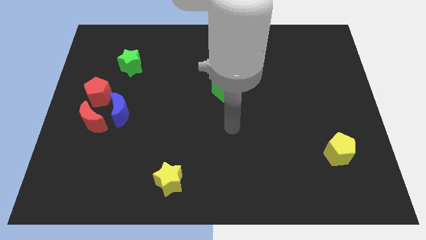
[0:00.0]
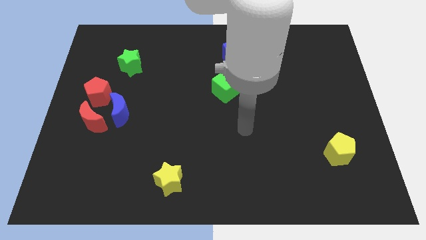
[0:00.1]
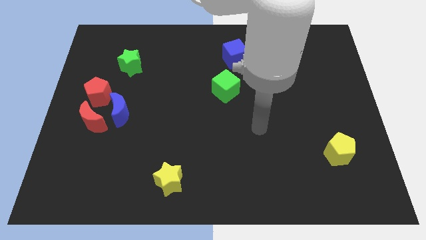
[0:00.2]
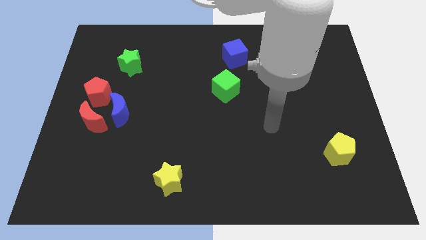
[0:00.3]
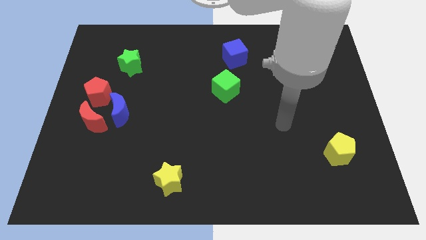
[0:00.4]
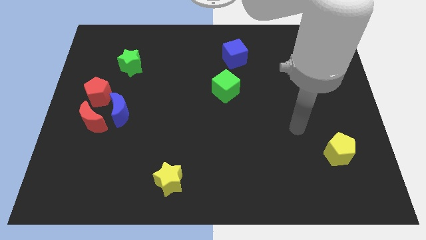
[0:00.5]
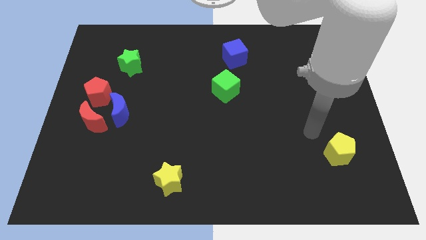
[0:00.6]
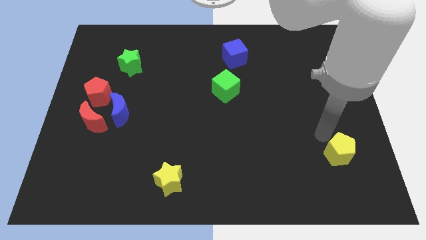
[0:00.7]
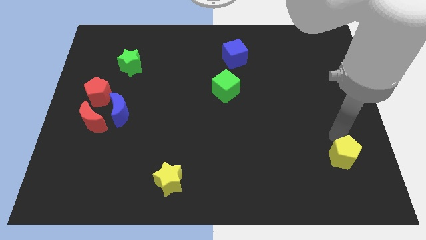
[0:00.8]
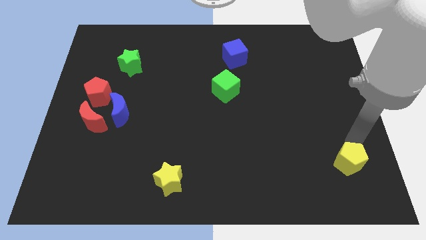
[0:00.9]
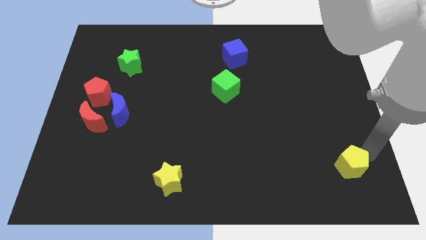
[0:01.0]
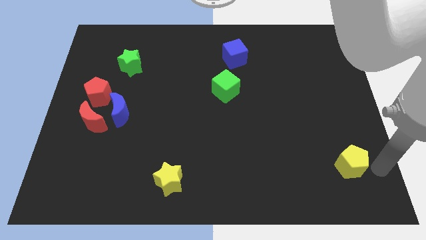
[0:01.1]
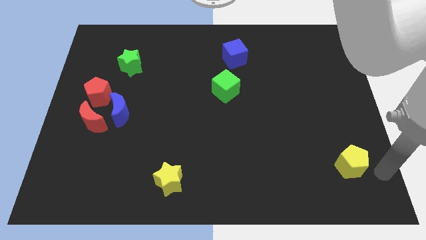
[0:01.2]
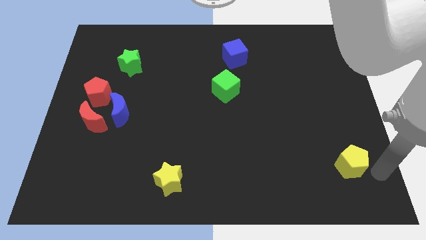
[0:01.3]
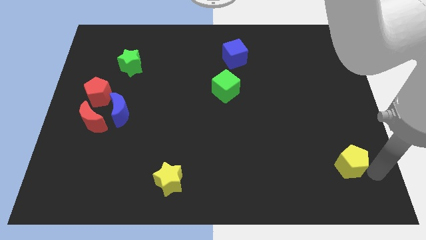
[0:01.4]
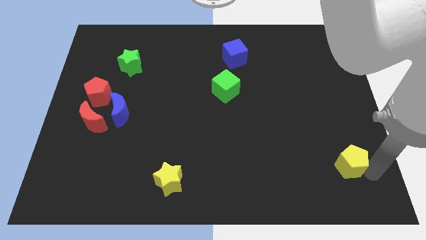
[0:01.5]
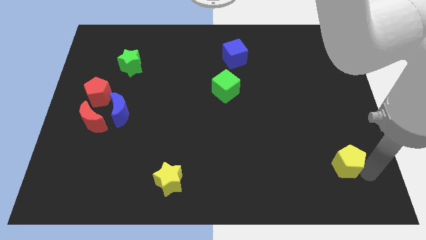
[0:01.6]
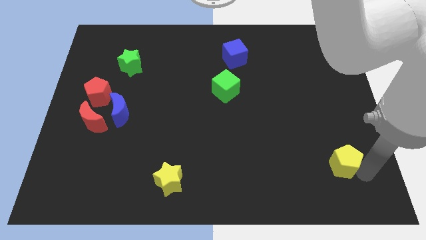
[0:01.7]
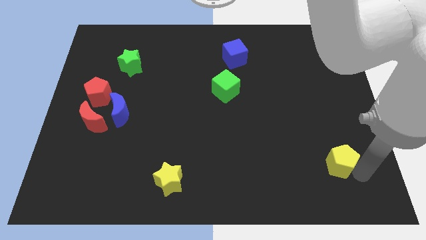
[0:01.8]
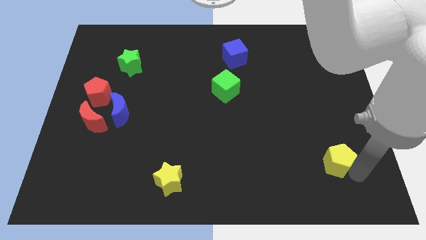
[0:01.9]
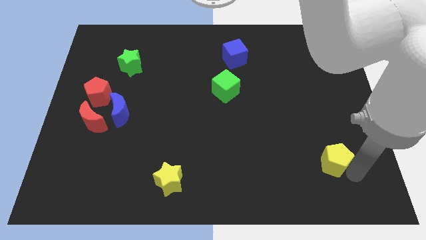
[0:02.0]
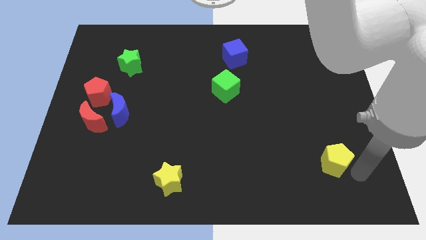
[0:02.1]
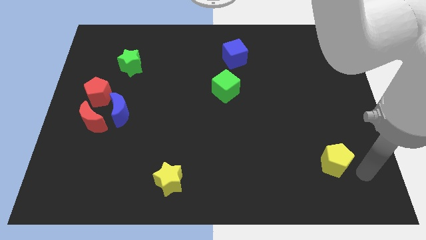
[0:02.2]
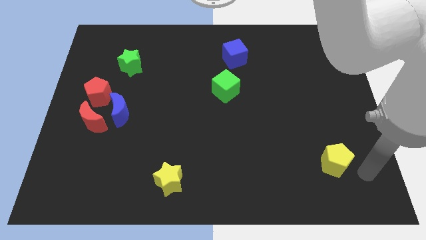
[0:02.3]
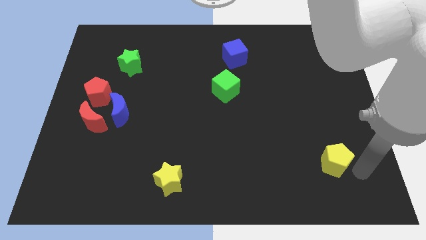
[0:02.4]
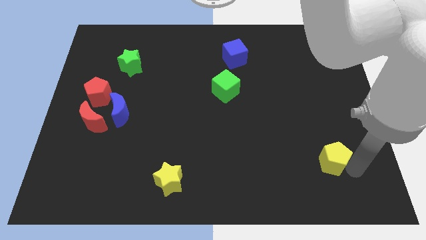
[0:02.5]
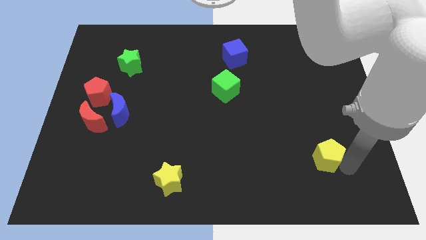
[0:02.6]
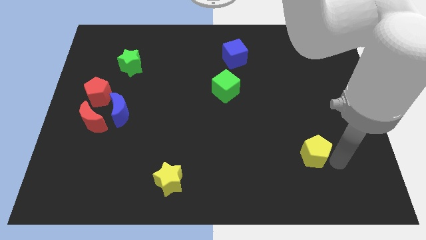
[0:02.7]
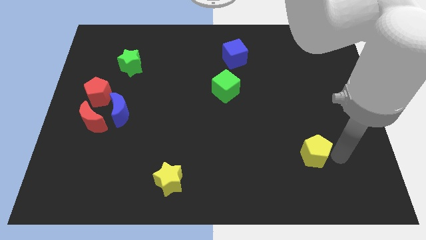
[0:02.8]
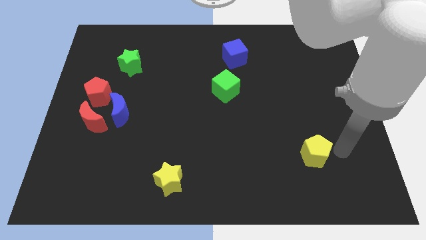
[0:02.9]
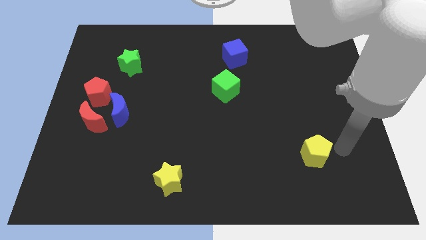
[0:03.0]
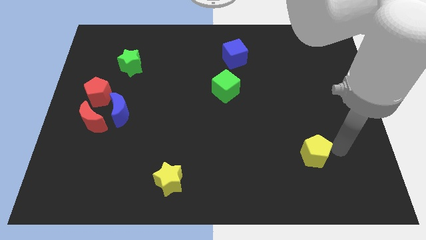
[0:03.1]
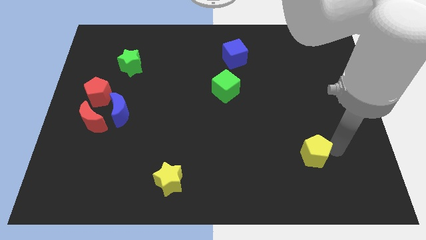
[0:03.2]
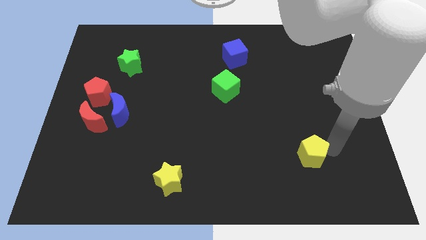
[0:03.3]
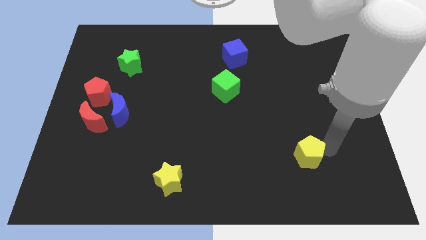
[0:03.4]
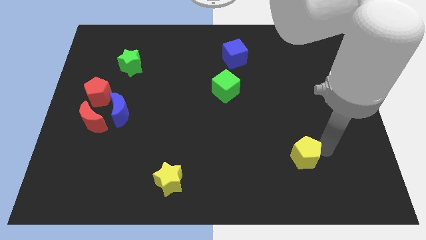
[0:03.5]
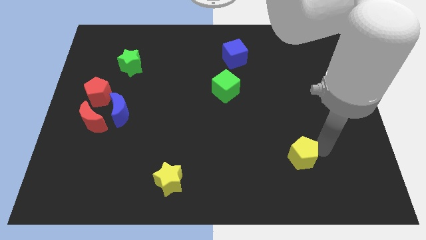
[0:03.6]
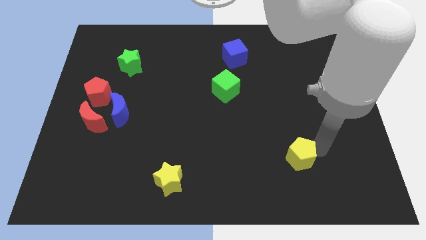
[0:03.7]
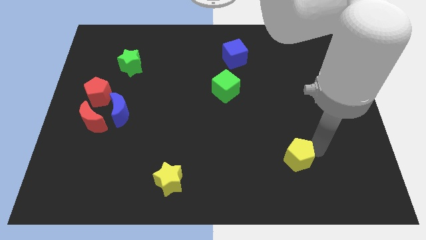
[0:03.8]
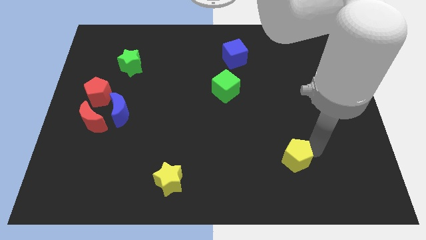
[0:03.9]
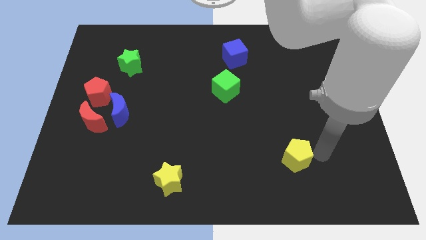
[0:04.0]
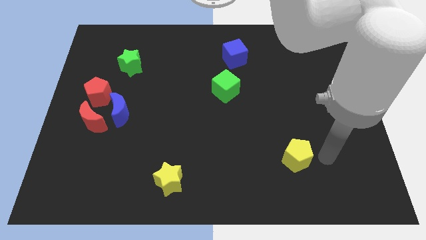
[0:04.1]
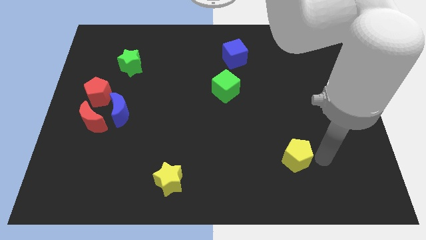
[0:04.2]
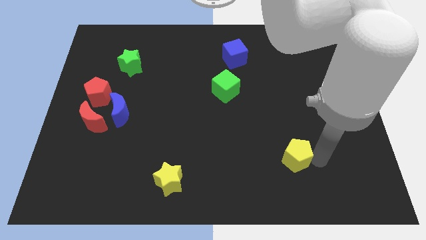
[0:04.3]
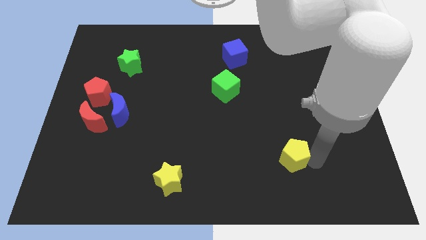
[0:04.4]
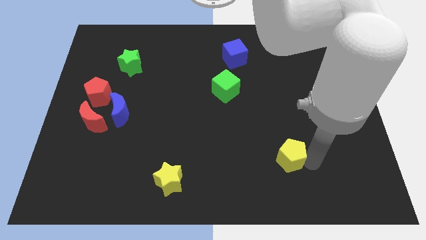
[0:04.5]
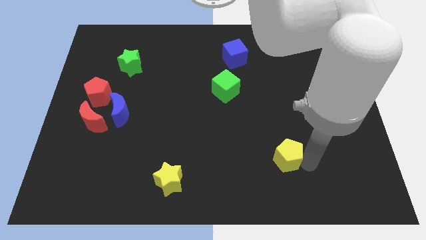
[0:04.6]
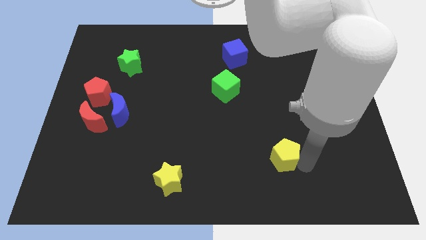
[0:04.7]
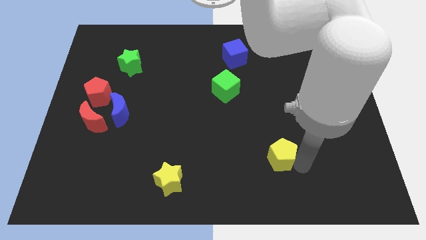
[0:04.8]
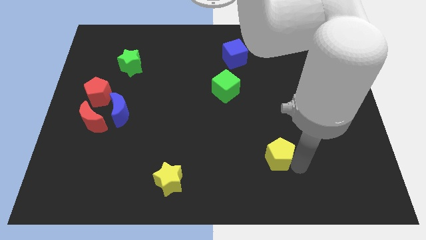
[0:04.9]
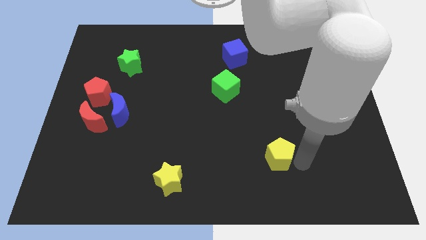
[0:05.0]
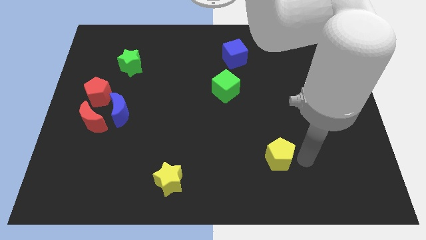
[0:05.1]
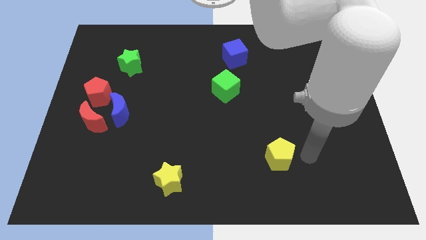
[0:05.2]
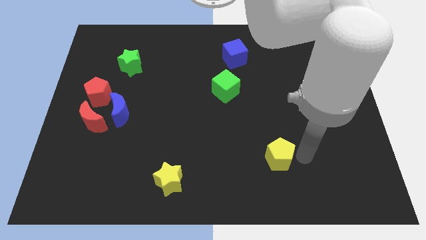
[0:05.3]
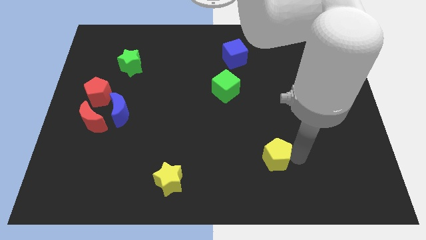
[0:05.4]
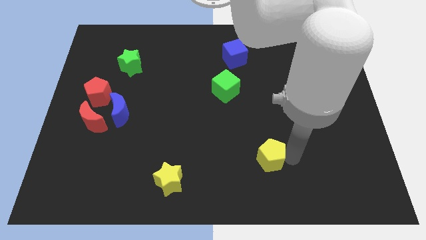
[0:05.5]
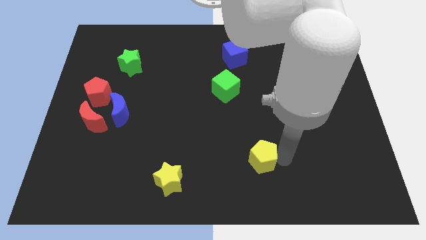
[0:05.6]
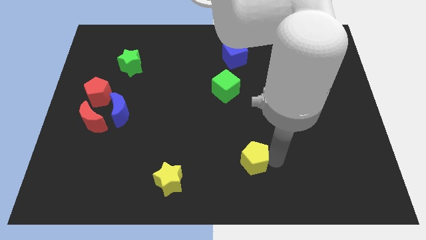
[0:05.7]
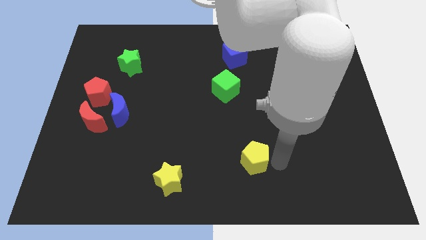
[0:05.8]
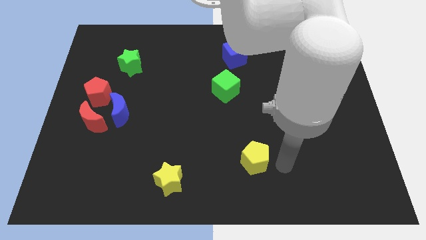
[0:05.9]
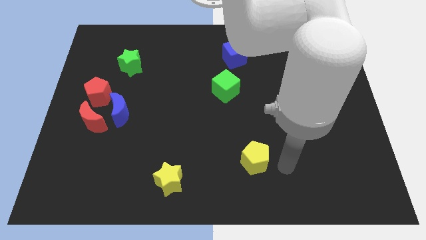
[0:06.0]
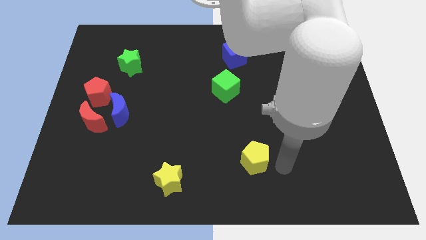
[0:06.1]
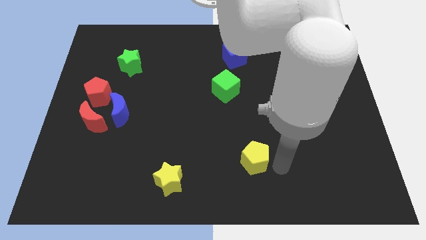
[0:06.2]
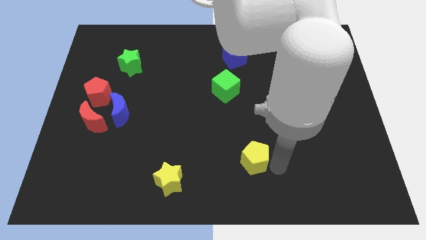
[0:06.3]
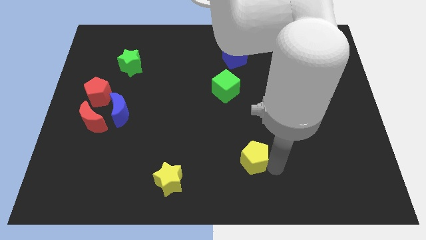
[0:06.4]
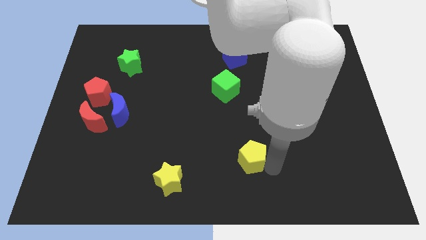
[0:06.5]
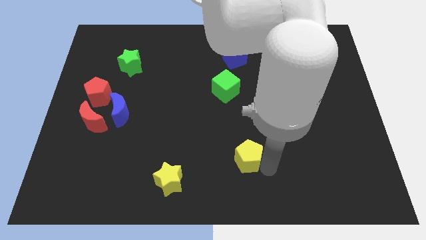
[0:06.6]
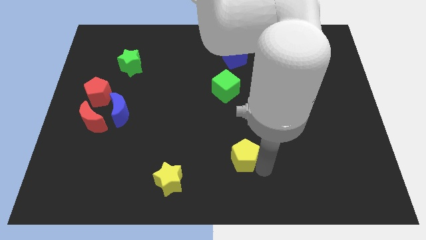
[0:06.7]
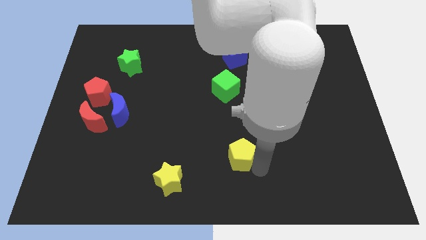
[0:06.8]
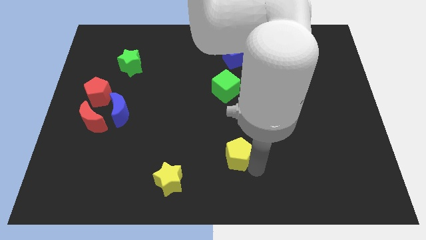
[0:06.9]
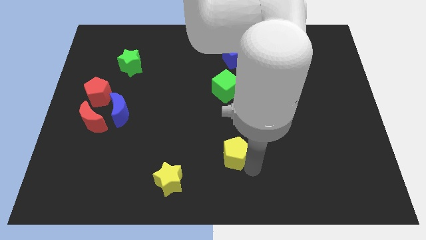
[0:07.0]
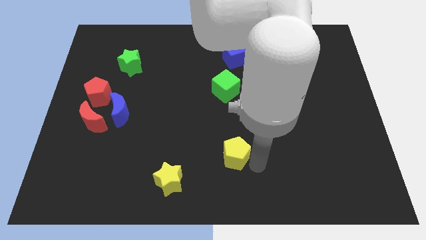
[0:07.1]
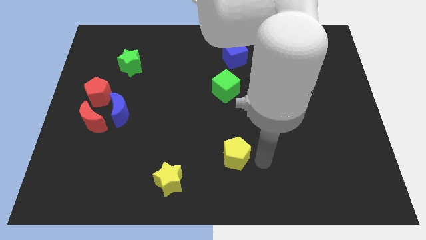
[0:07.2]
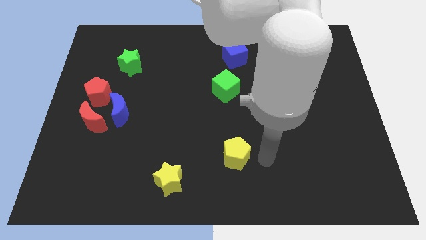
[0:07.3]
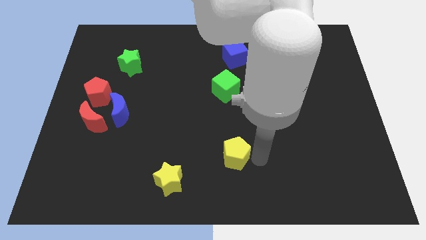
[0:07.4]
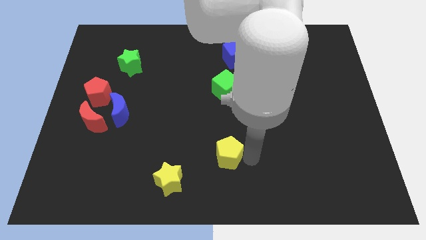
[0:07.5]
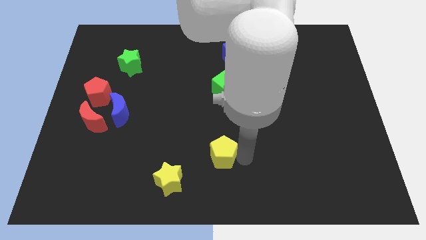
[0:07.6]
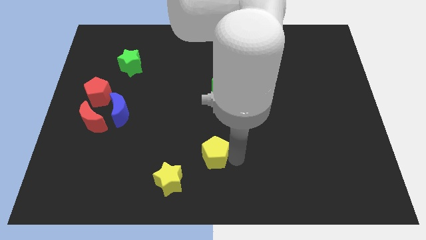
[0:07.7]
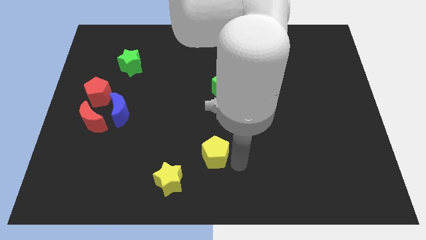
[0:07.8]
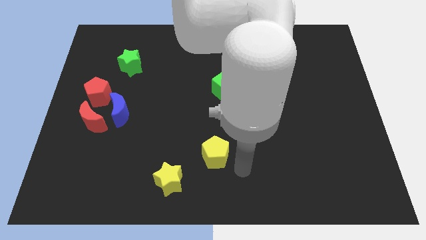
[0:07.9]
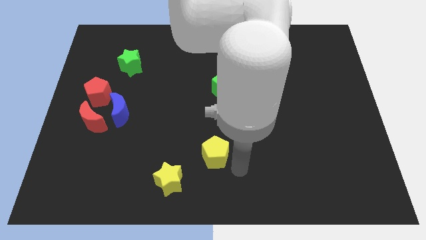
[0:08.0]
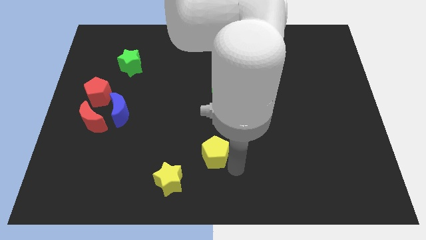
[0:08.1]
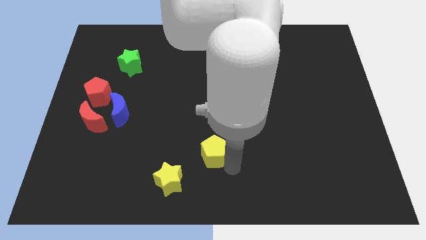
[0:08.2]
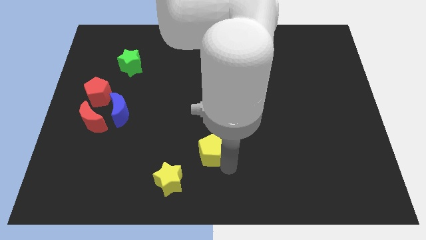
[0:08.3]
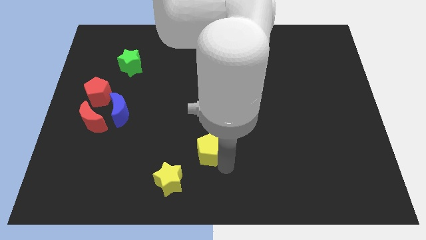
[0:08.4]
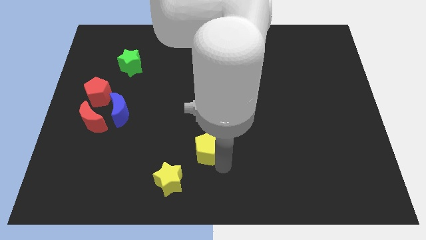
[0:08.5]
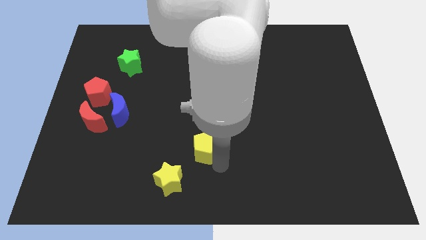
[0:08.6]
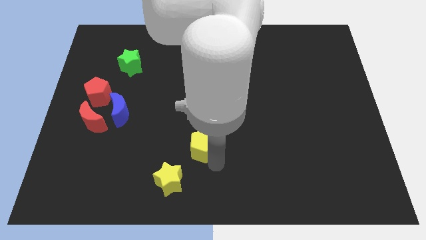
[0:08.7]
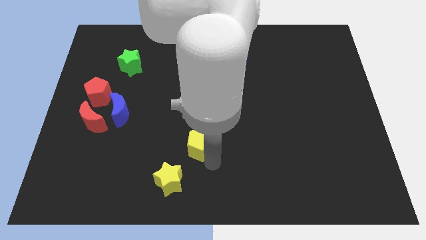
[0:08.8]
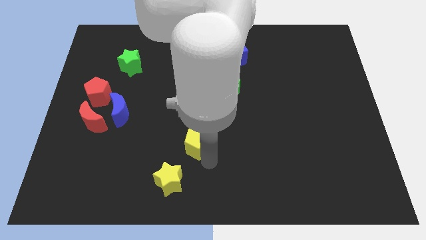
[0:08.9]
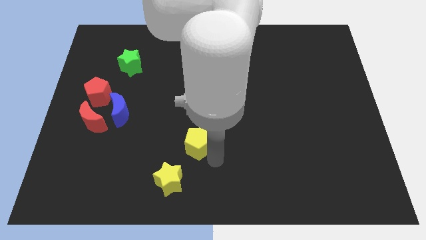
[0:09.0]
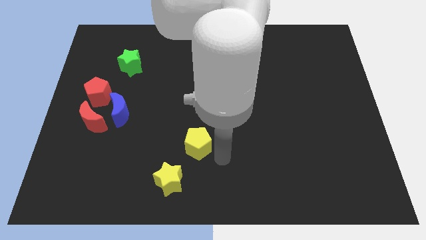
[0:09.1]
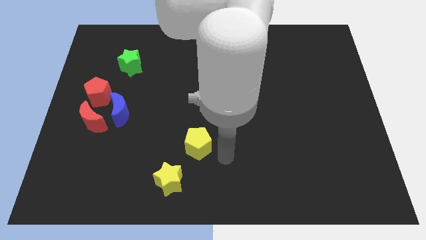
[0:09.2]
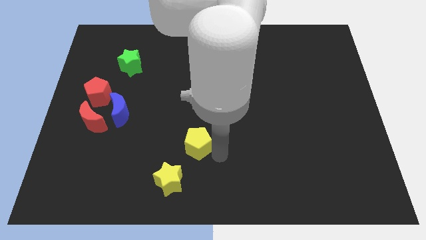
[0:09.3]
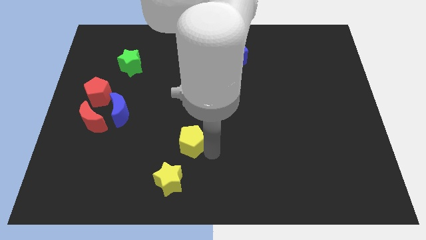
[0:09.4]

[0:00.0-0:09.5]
slide the yellow pentagon to the top of the yellow star
